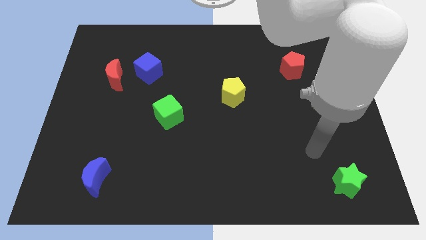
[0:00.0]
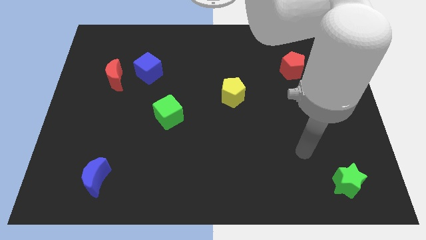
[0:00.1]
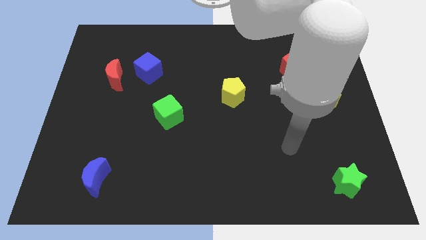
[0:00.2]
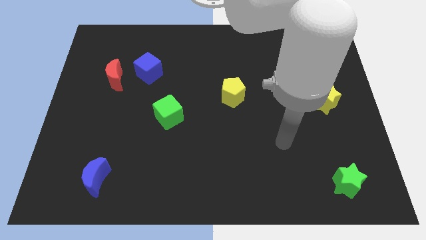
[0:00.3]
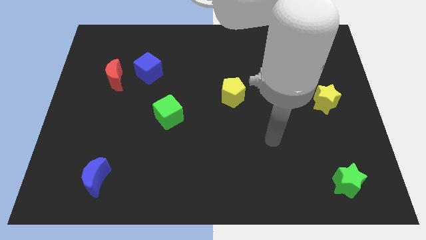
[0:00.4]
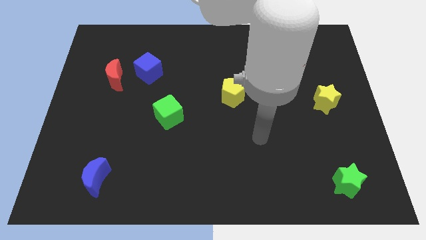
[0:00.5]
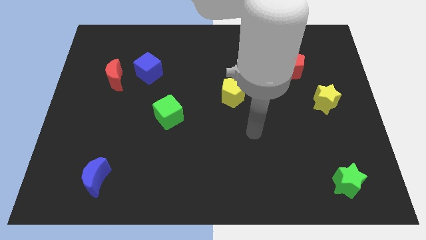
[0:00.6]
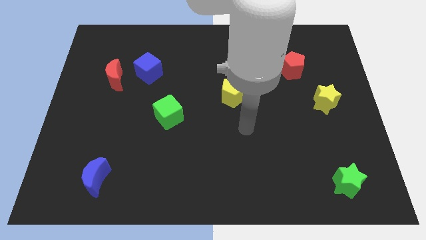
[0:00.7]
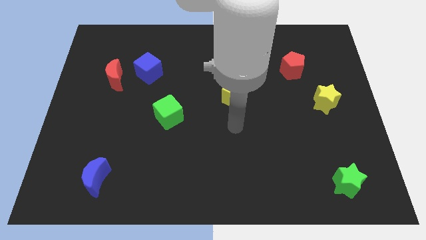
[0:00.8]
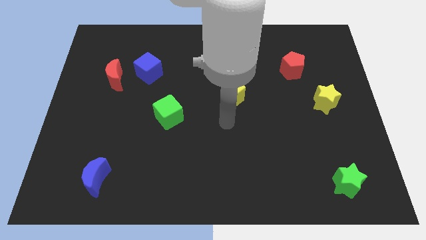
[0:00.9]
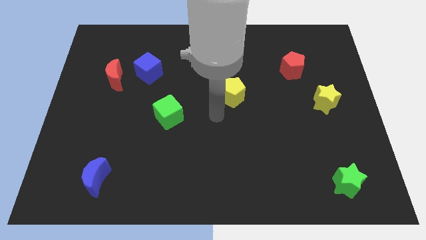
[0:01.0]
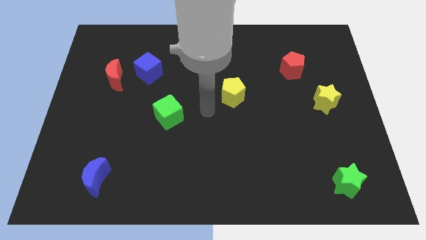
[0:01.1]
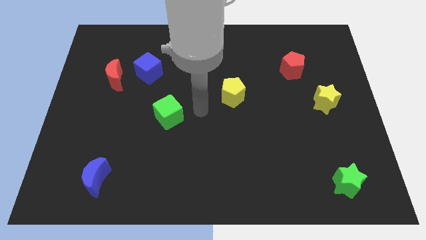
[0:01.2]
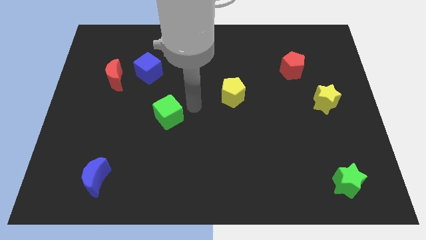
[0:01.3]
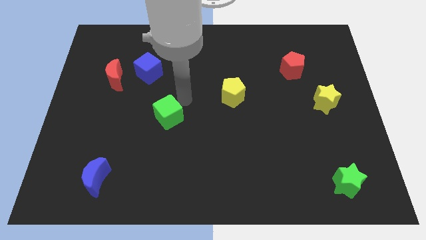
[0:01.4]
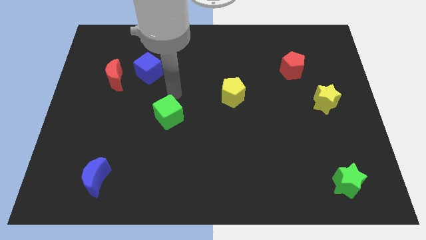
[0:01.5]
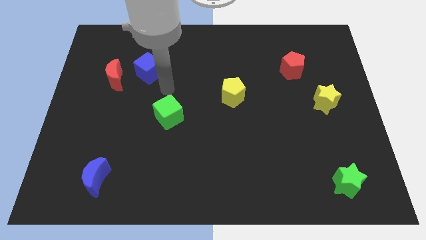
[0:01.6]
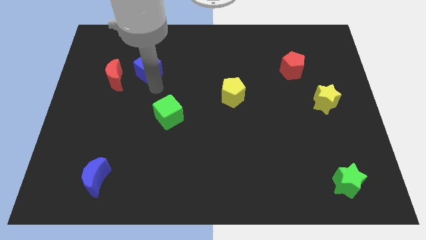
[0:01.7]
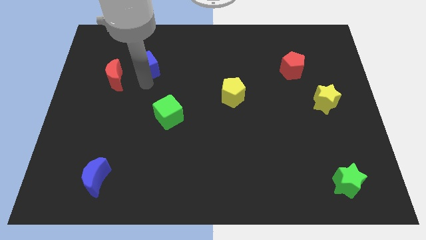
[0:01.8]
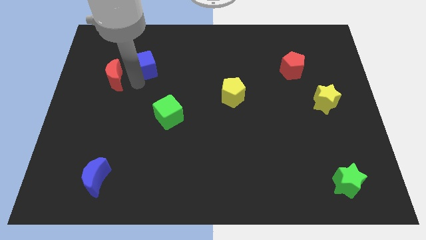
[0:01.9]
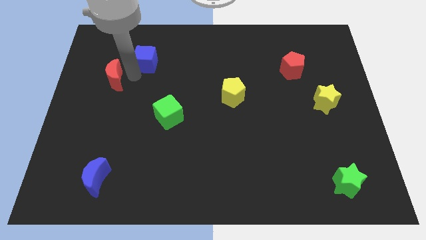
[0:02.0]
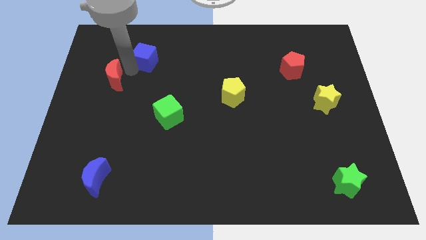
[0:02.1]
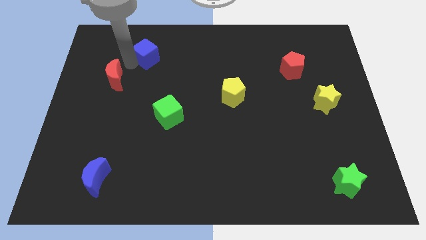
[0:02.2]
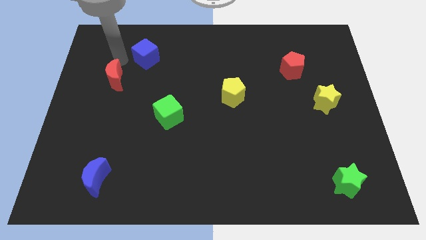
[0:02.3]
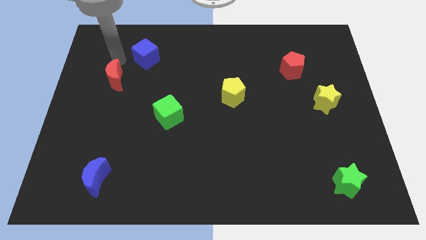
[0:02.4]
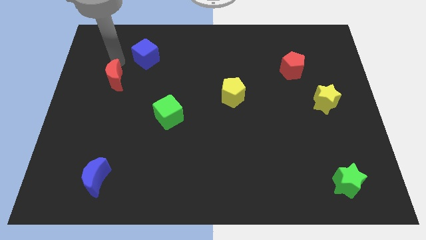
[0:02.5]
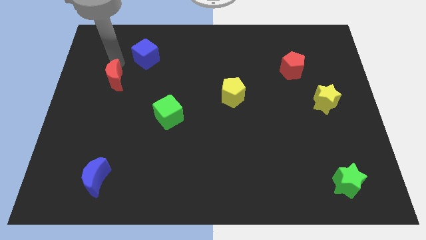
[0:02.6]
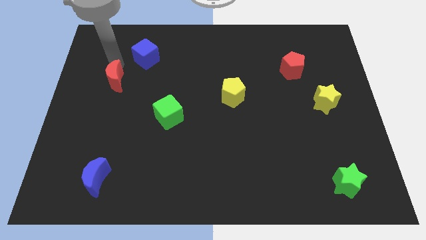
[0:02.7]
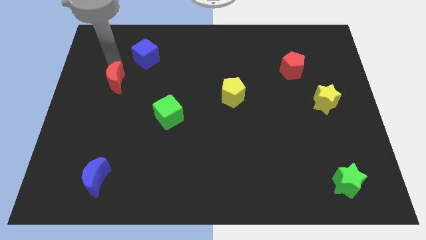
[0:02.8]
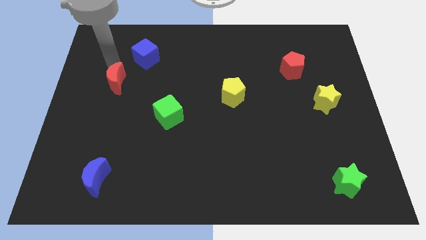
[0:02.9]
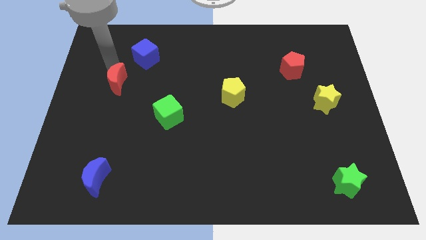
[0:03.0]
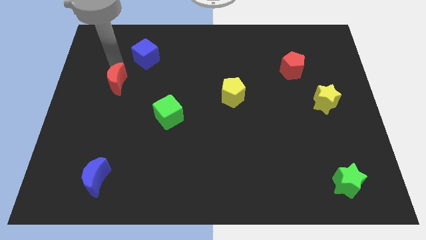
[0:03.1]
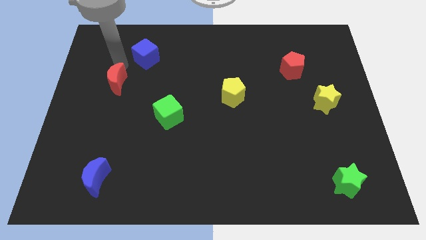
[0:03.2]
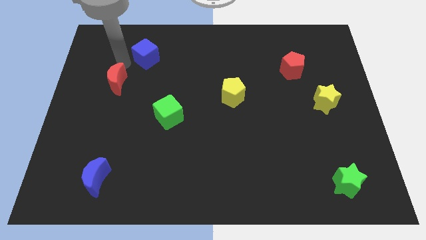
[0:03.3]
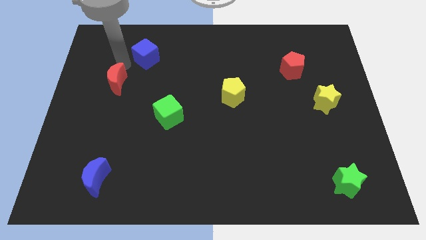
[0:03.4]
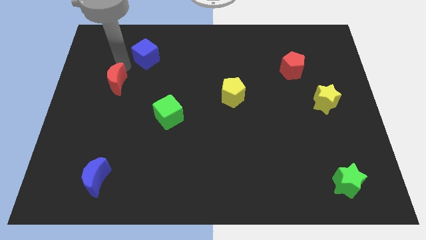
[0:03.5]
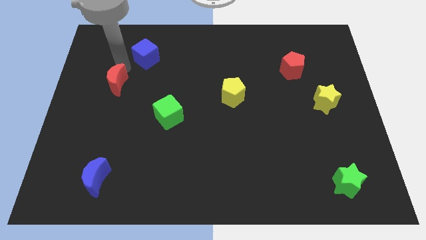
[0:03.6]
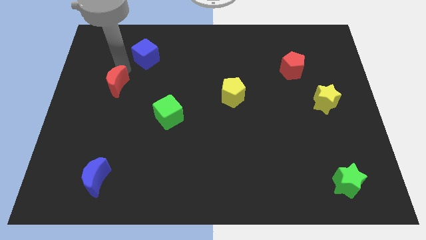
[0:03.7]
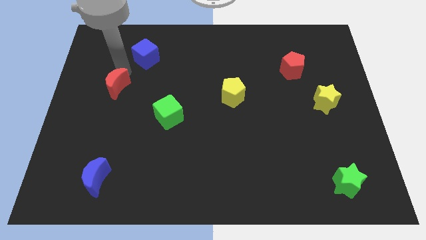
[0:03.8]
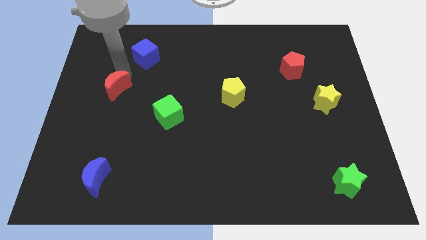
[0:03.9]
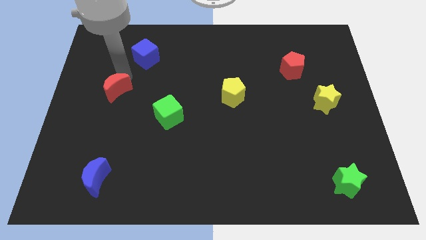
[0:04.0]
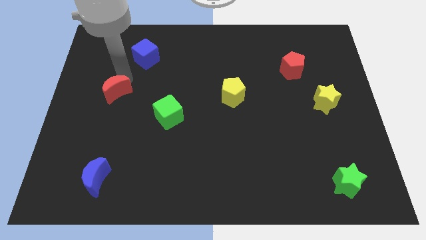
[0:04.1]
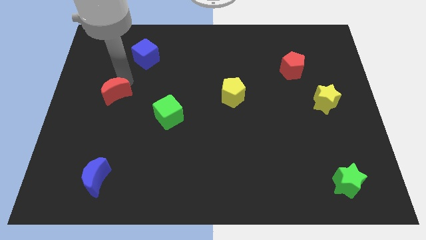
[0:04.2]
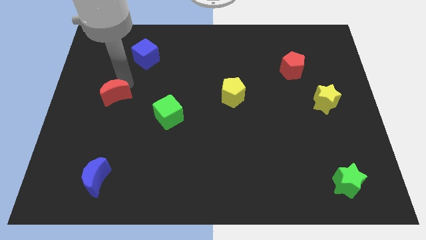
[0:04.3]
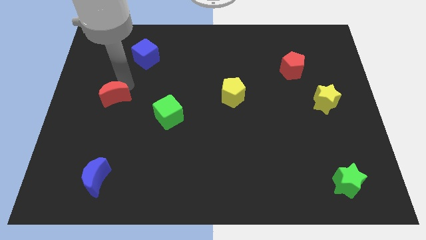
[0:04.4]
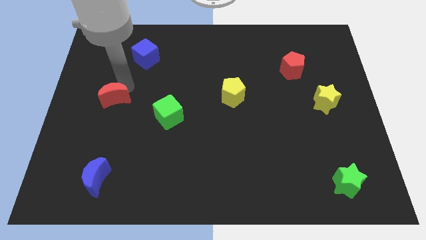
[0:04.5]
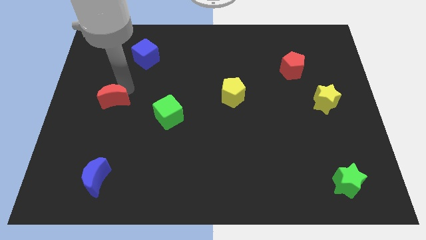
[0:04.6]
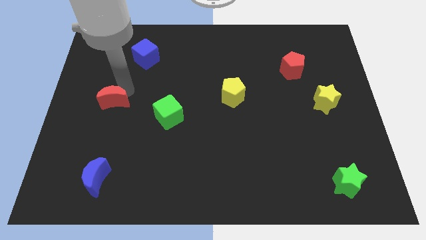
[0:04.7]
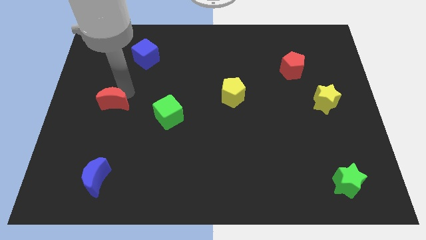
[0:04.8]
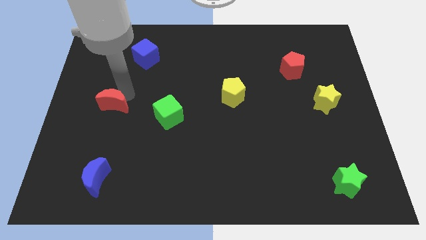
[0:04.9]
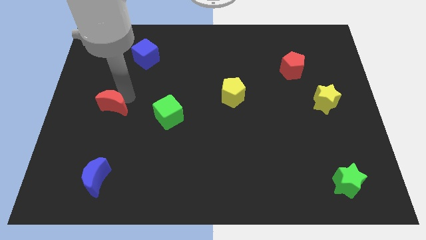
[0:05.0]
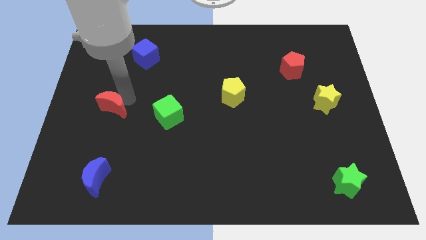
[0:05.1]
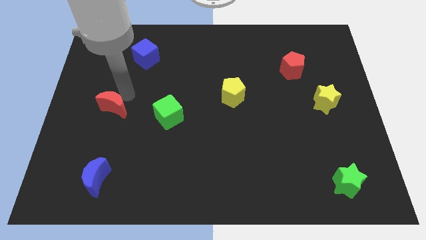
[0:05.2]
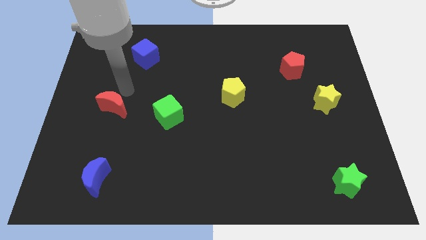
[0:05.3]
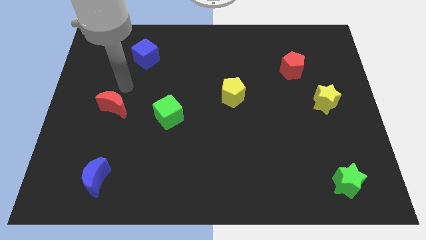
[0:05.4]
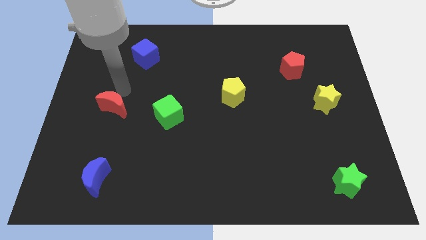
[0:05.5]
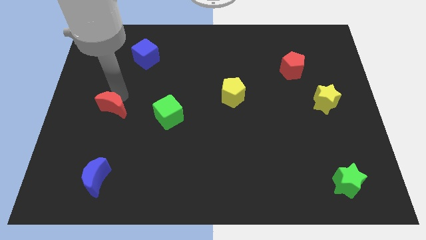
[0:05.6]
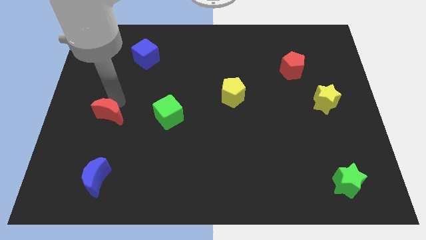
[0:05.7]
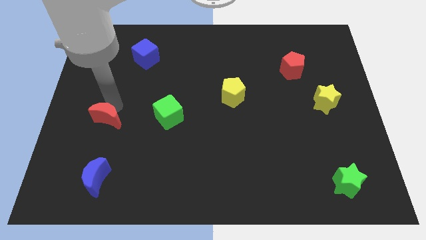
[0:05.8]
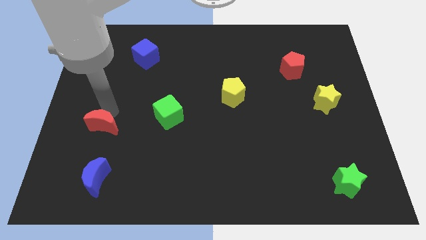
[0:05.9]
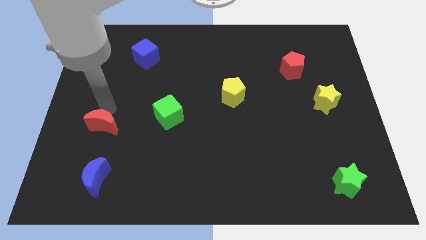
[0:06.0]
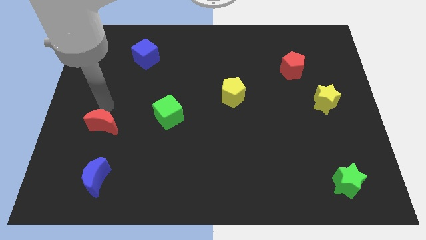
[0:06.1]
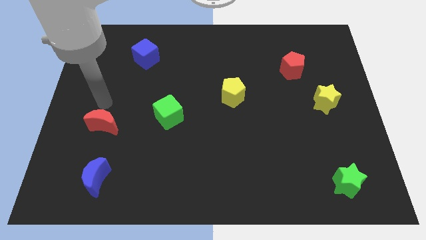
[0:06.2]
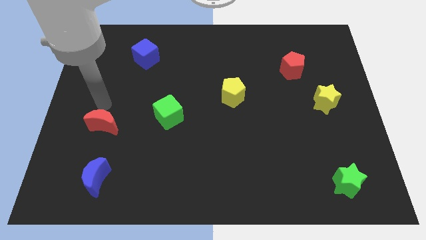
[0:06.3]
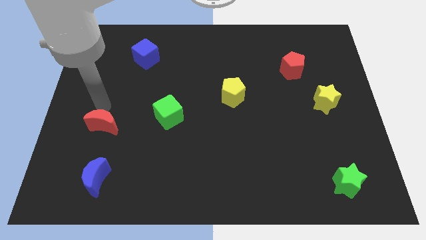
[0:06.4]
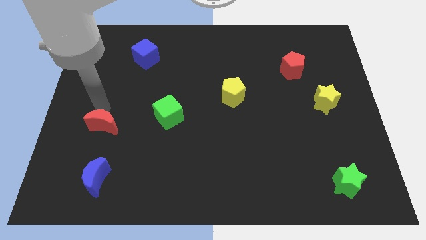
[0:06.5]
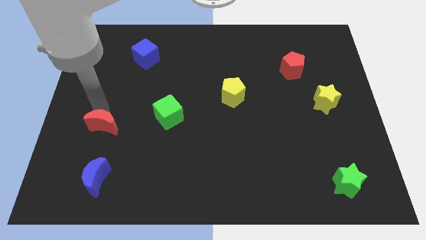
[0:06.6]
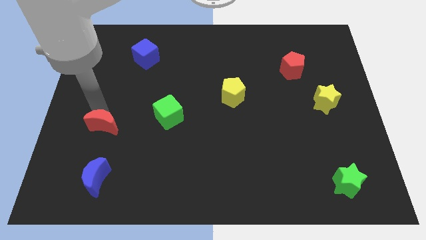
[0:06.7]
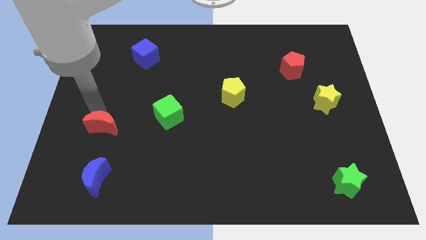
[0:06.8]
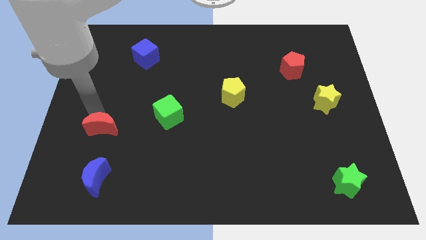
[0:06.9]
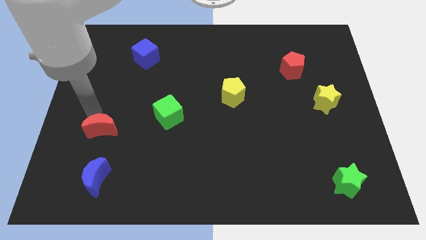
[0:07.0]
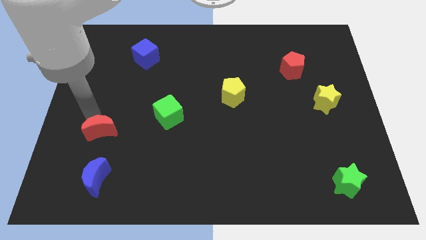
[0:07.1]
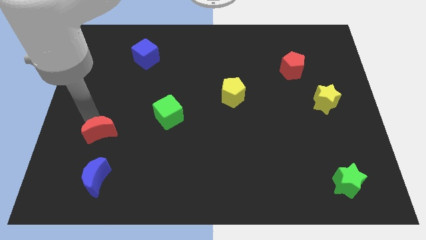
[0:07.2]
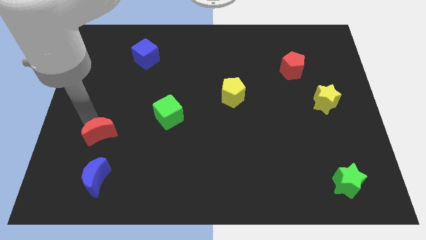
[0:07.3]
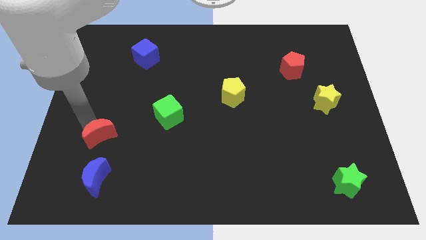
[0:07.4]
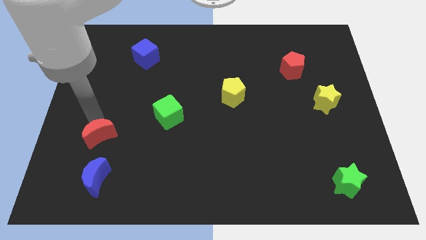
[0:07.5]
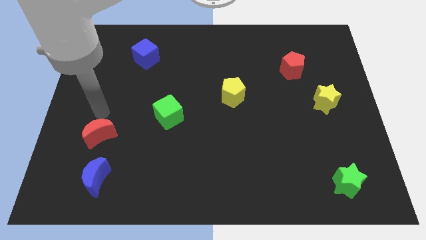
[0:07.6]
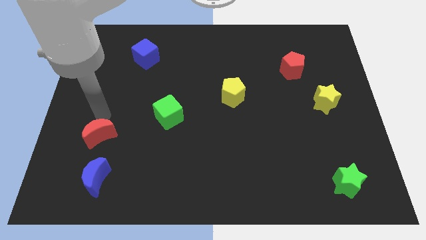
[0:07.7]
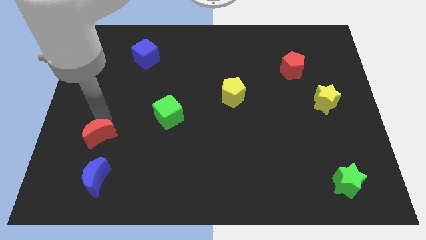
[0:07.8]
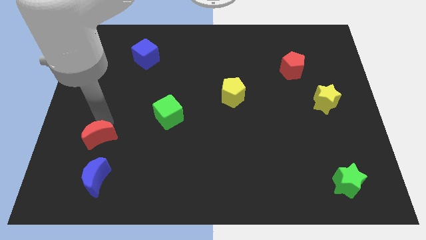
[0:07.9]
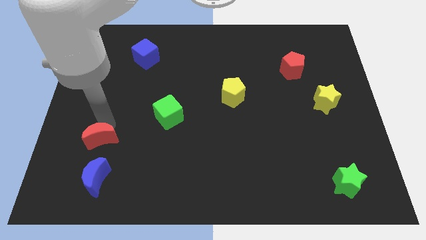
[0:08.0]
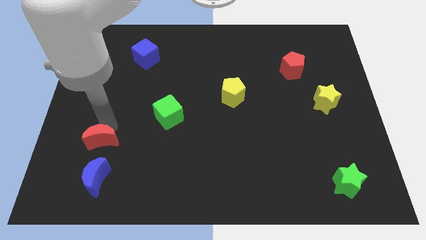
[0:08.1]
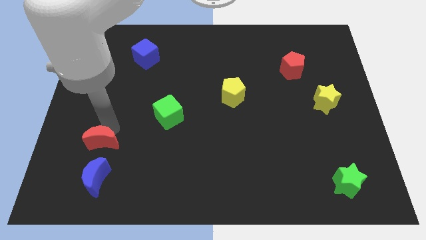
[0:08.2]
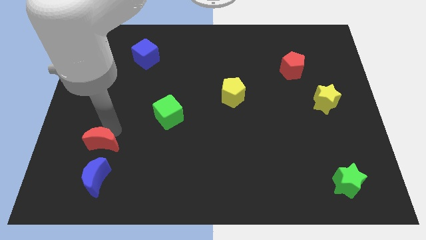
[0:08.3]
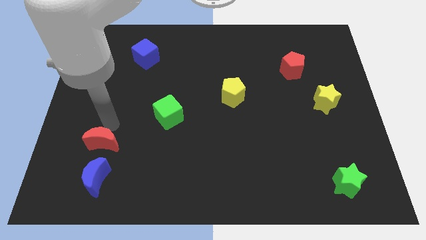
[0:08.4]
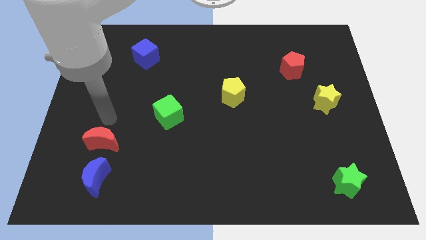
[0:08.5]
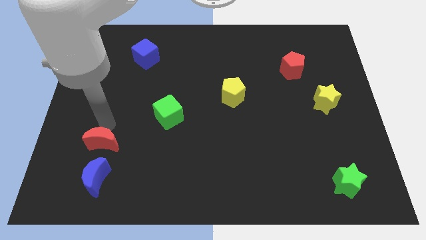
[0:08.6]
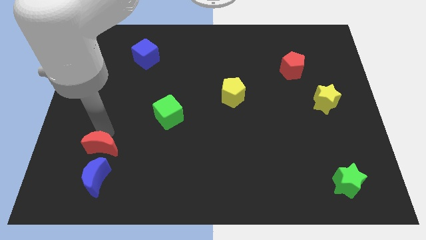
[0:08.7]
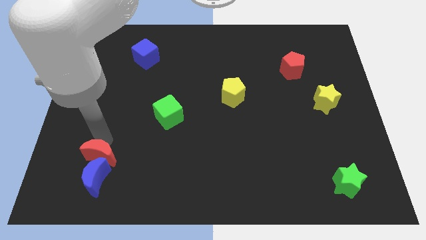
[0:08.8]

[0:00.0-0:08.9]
move the red moon towards the blue moon
